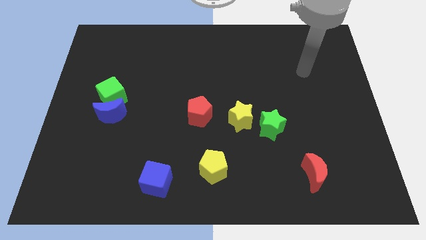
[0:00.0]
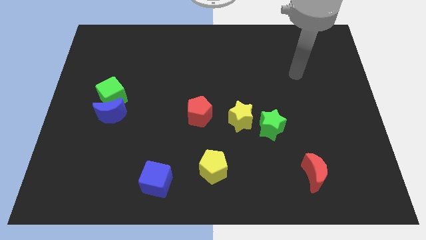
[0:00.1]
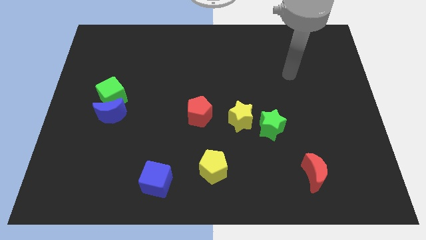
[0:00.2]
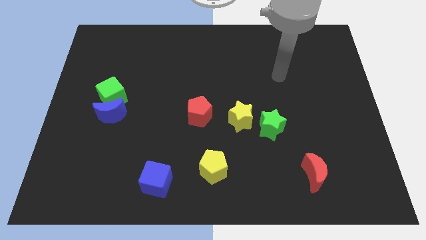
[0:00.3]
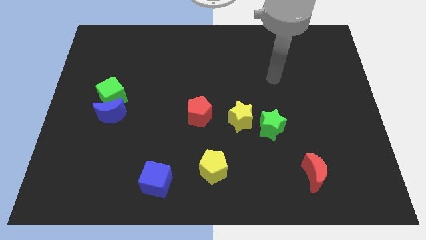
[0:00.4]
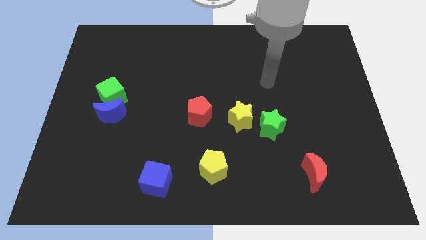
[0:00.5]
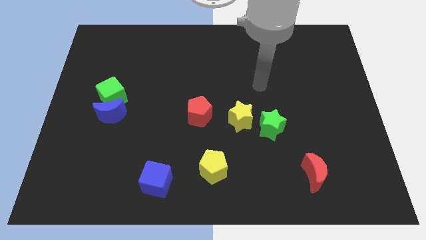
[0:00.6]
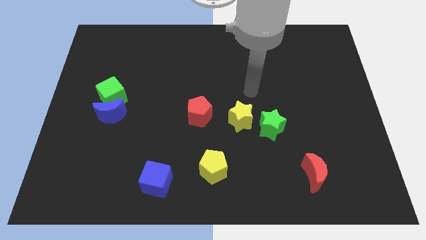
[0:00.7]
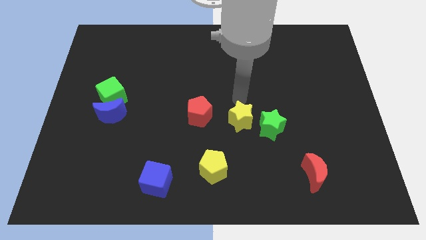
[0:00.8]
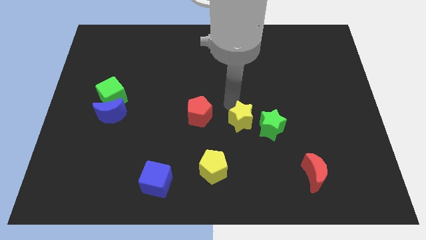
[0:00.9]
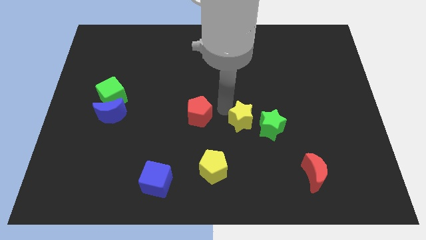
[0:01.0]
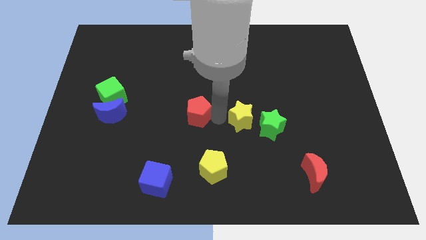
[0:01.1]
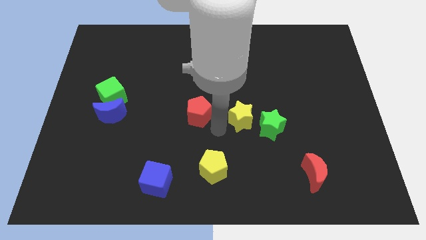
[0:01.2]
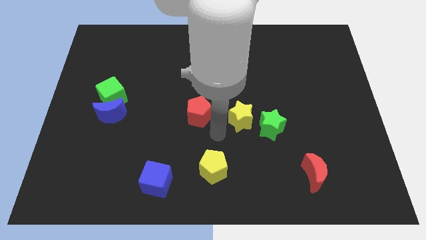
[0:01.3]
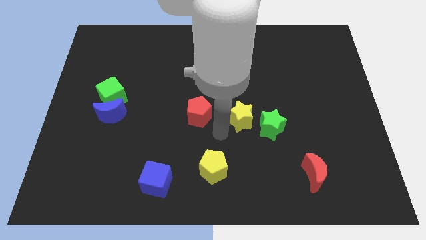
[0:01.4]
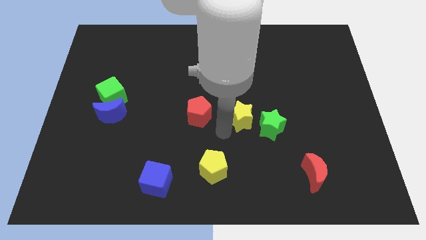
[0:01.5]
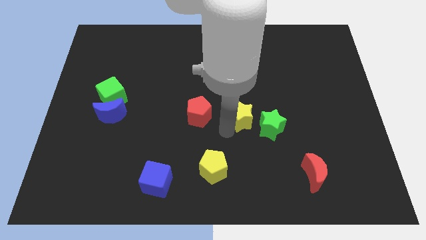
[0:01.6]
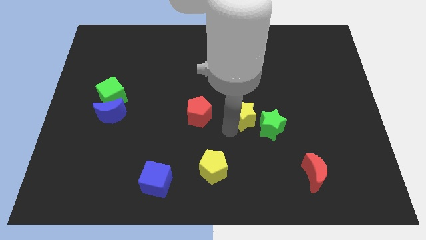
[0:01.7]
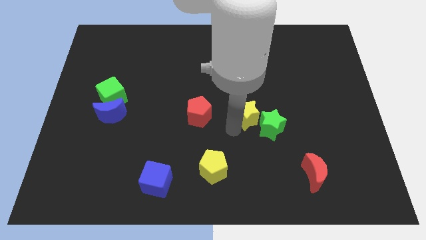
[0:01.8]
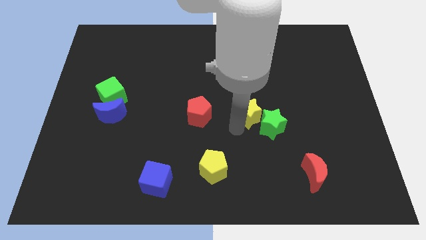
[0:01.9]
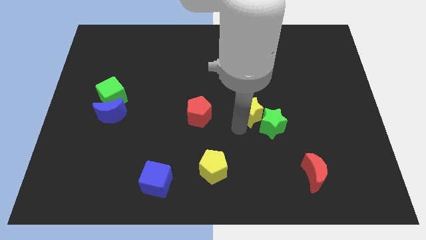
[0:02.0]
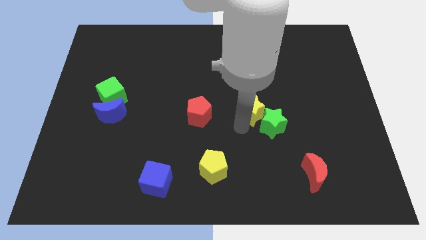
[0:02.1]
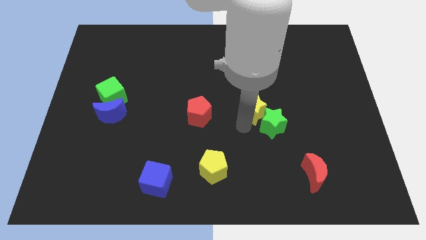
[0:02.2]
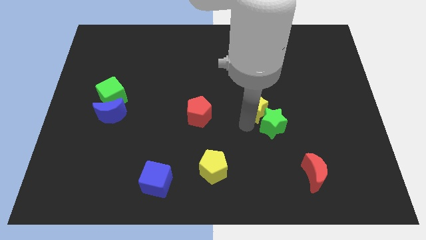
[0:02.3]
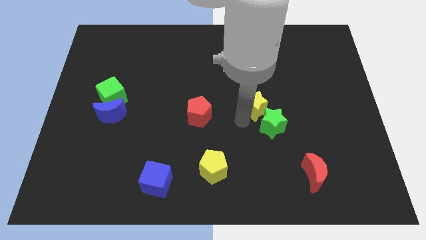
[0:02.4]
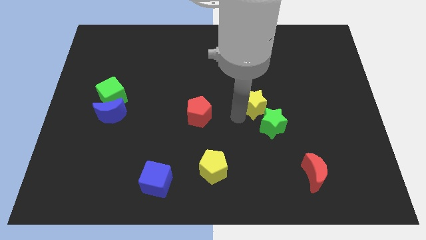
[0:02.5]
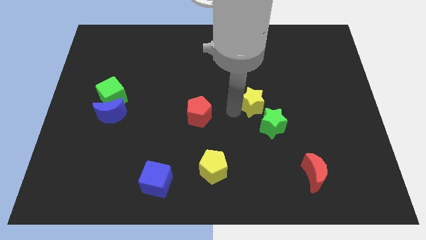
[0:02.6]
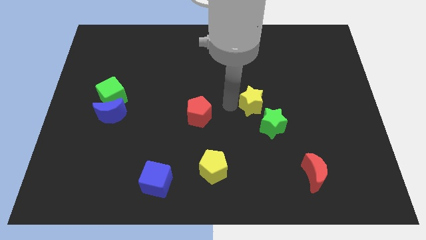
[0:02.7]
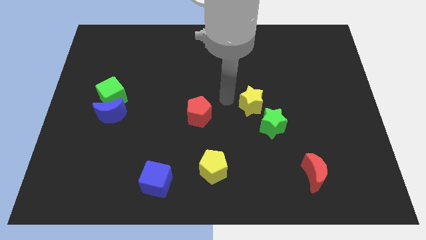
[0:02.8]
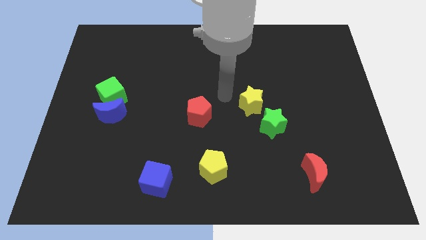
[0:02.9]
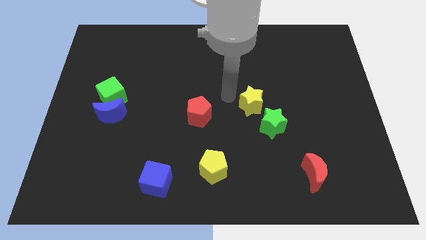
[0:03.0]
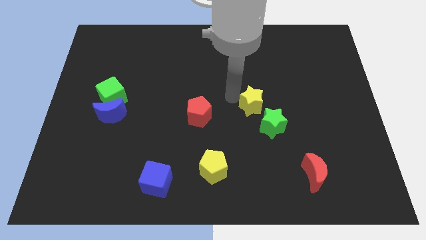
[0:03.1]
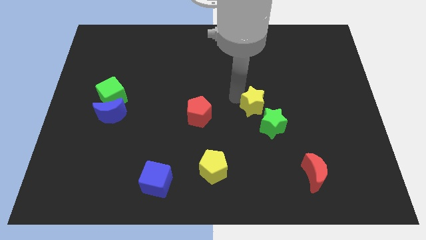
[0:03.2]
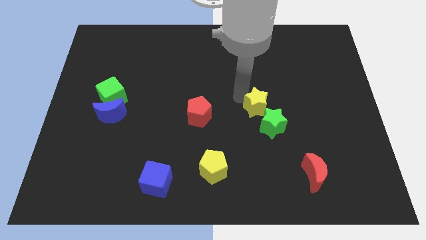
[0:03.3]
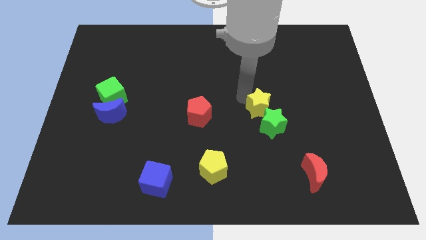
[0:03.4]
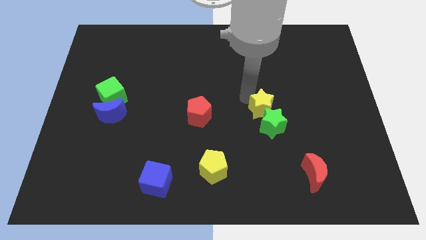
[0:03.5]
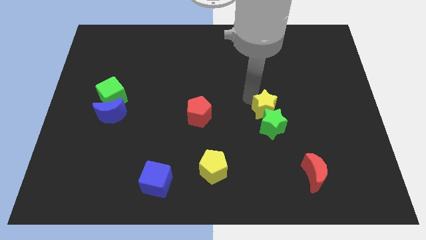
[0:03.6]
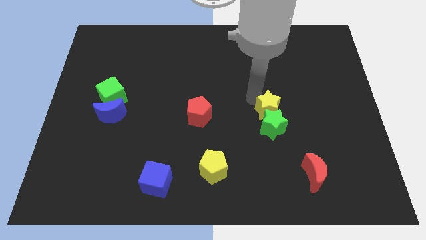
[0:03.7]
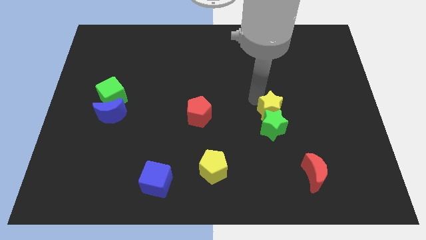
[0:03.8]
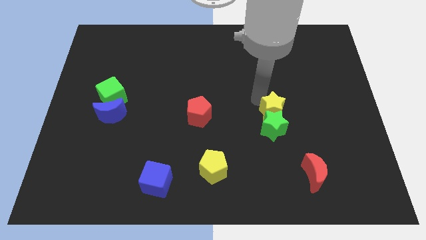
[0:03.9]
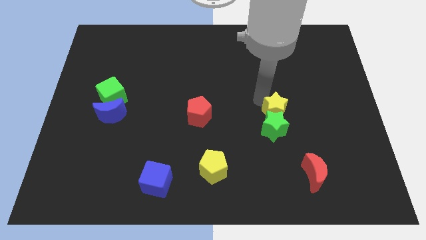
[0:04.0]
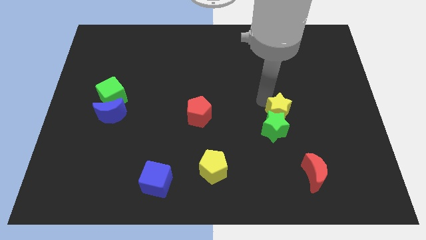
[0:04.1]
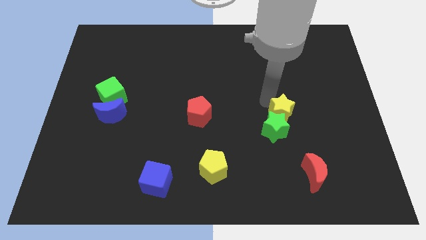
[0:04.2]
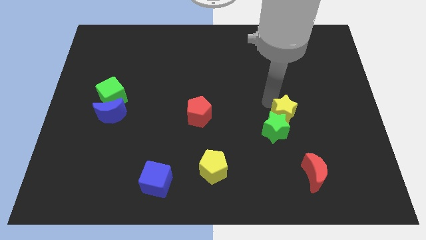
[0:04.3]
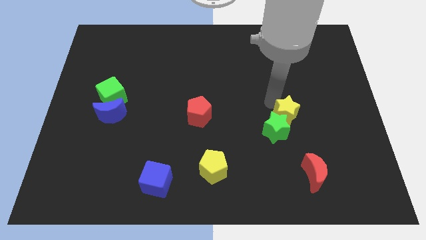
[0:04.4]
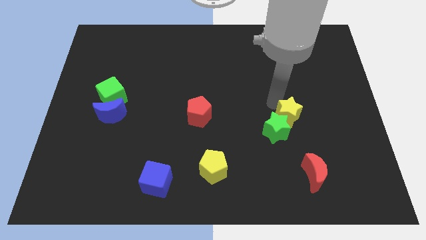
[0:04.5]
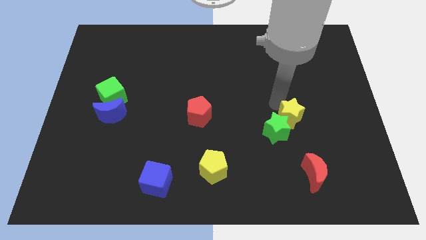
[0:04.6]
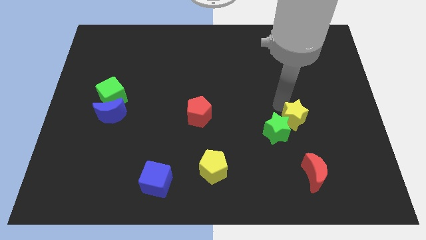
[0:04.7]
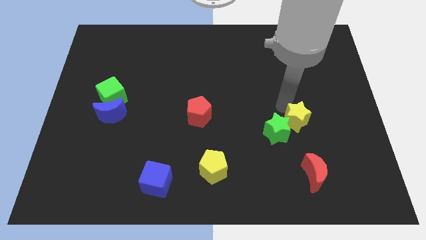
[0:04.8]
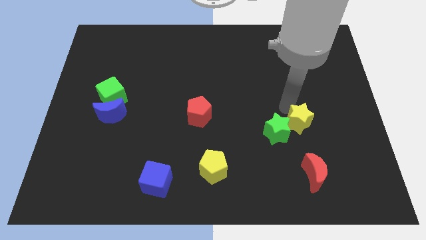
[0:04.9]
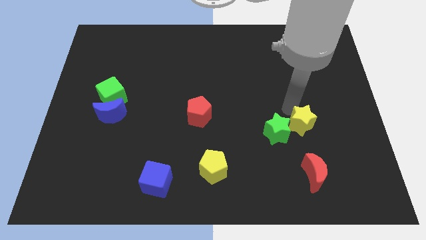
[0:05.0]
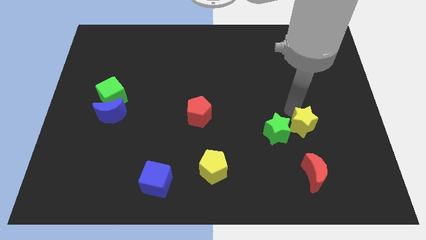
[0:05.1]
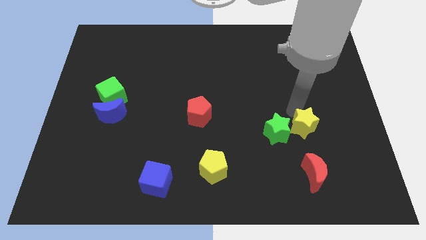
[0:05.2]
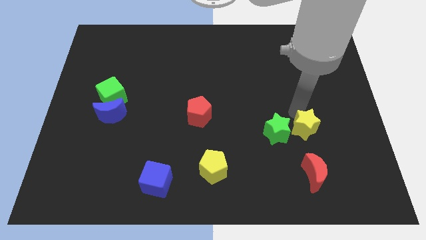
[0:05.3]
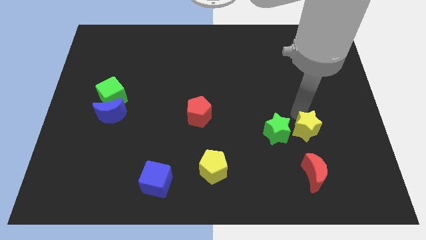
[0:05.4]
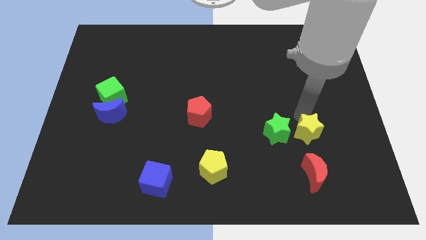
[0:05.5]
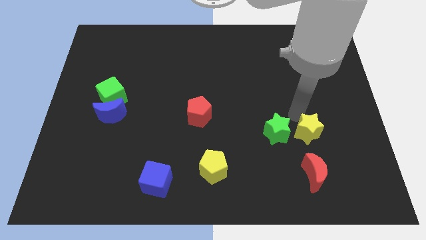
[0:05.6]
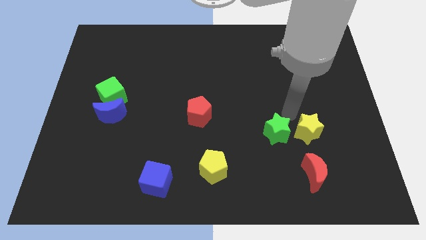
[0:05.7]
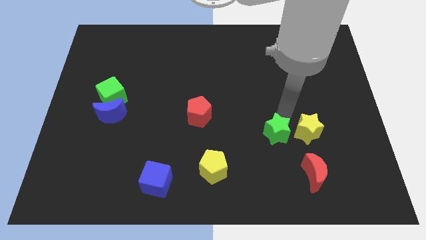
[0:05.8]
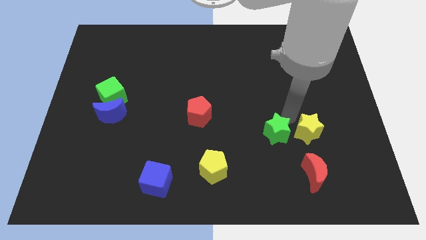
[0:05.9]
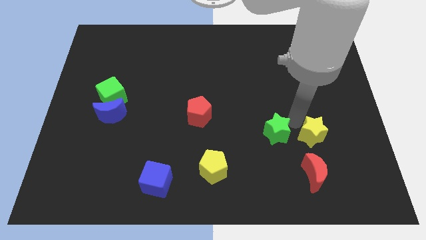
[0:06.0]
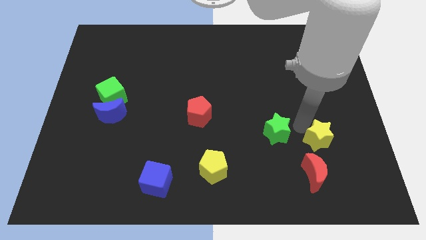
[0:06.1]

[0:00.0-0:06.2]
push the yellow star to the top right side of the red moon

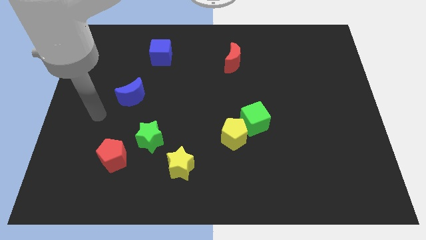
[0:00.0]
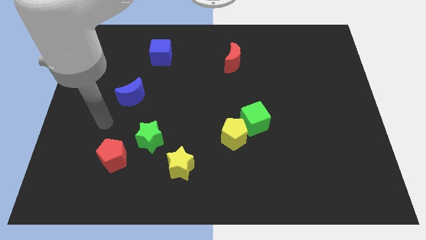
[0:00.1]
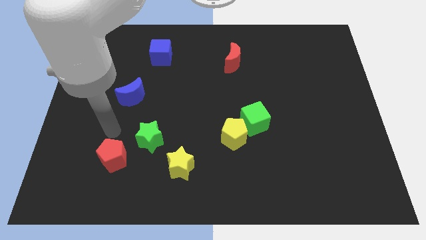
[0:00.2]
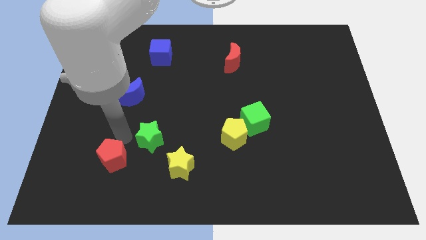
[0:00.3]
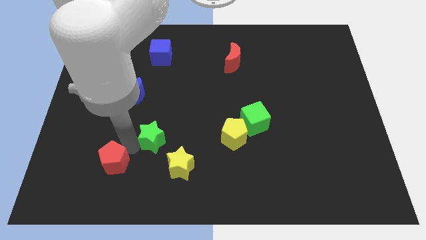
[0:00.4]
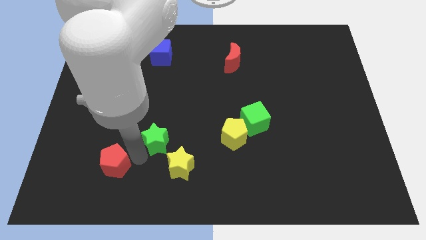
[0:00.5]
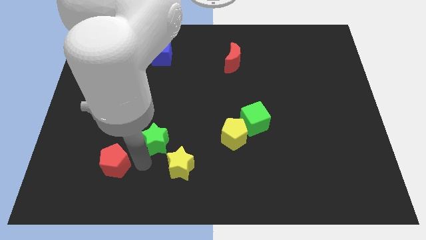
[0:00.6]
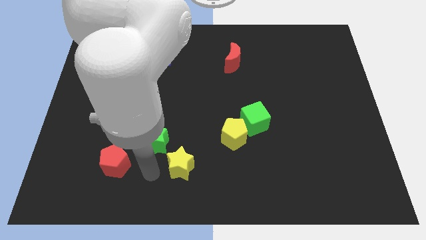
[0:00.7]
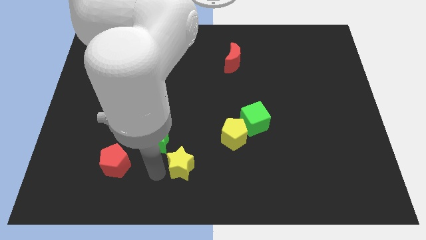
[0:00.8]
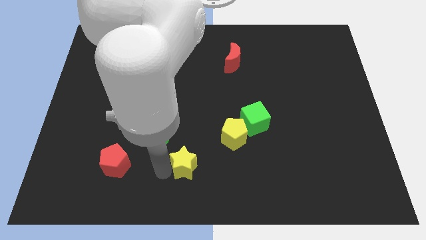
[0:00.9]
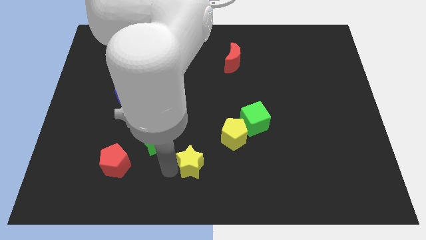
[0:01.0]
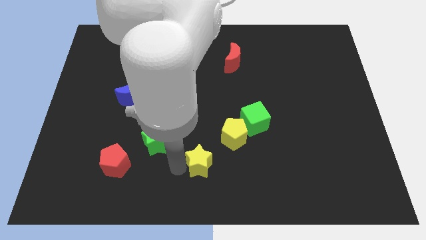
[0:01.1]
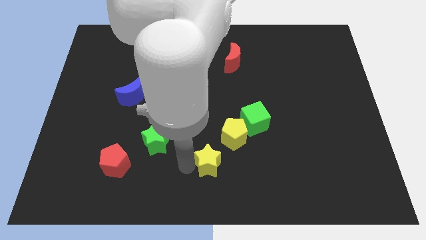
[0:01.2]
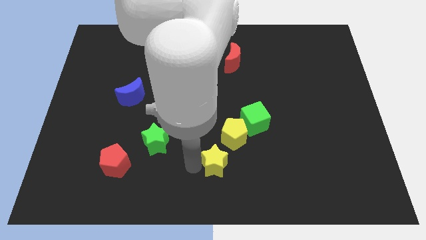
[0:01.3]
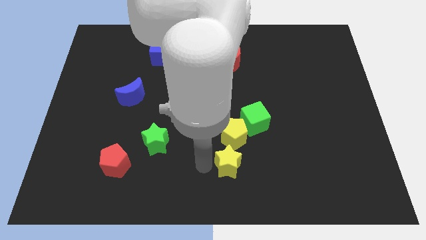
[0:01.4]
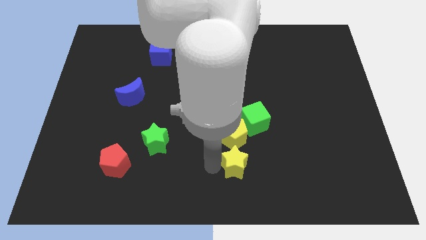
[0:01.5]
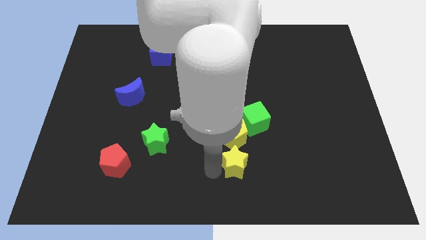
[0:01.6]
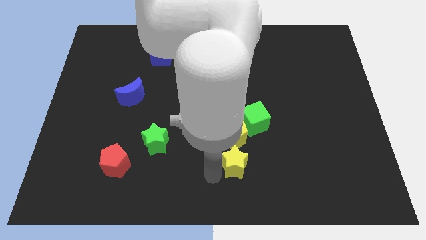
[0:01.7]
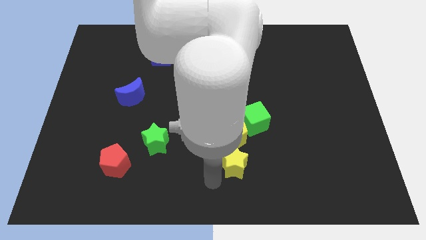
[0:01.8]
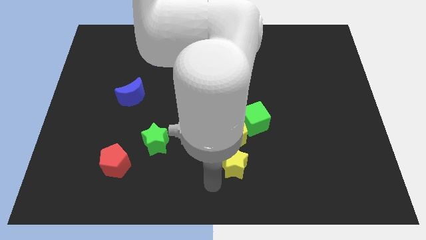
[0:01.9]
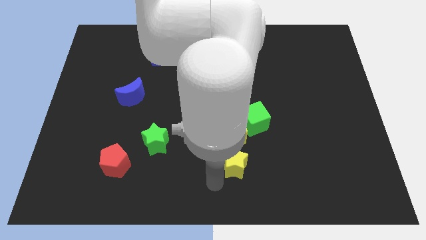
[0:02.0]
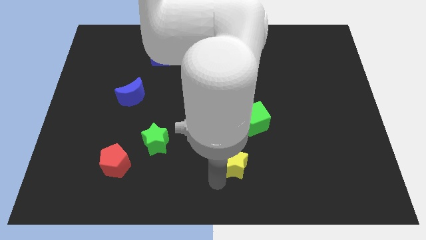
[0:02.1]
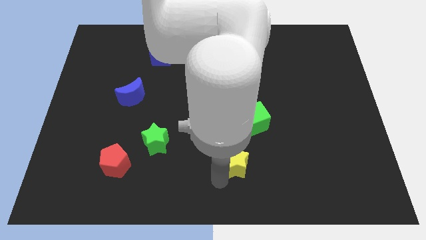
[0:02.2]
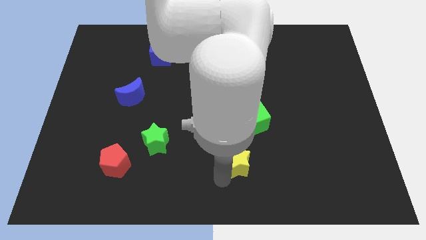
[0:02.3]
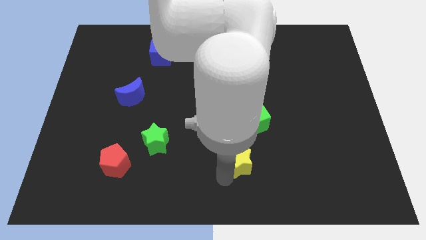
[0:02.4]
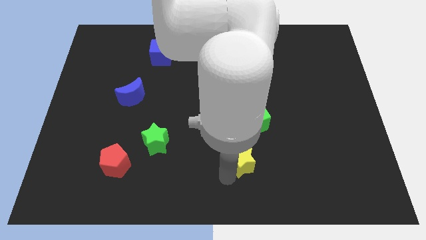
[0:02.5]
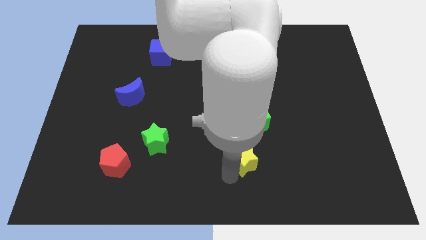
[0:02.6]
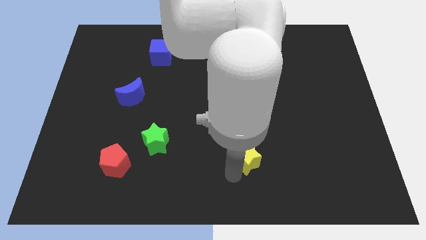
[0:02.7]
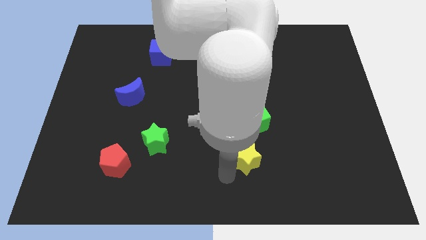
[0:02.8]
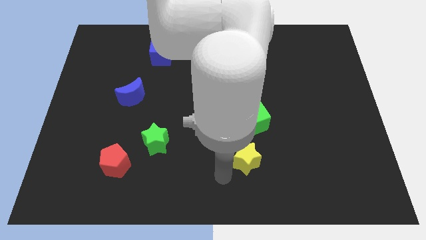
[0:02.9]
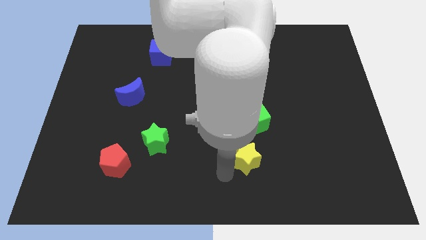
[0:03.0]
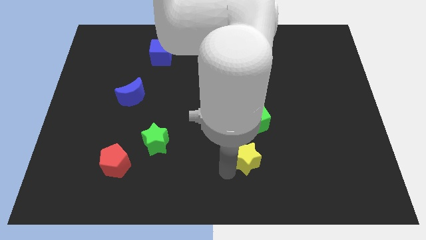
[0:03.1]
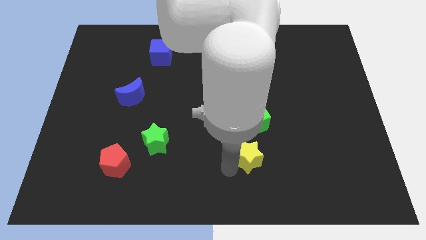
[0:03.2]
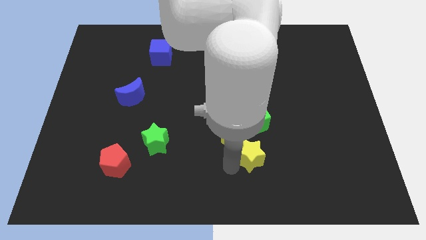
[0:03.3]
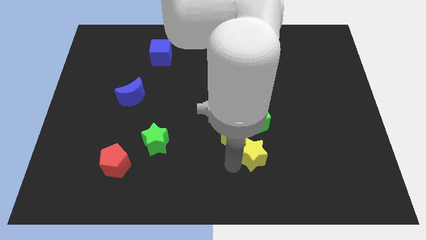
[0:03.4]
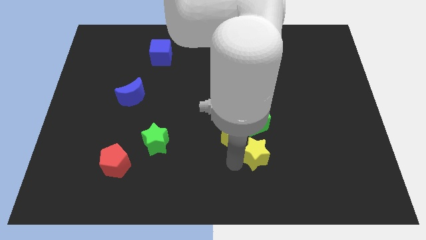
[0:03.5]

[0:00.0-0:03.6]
put the yellow star right of the yellow pentagon
